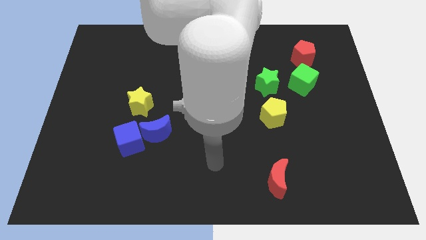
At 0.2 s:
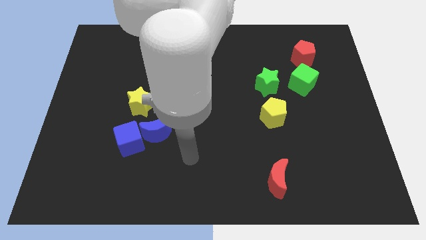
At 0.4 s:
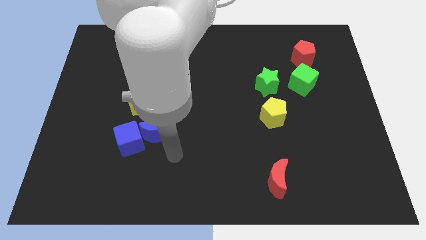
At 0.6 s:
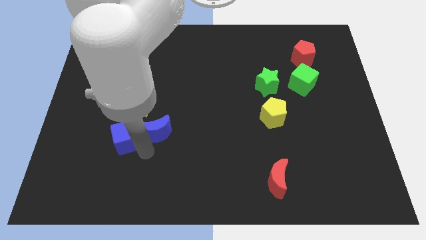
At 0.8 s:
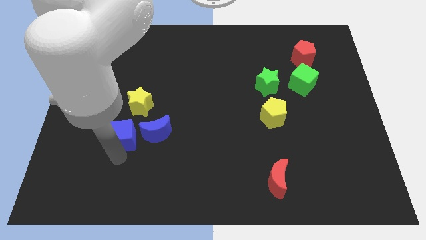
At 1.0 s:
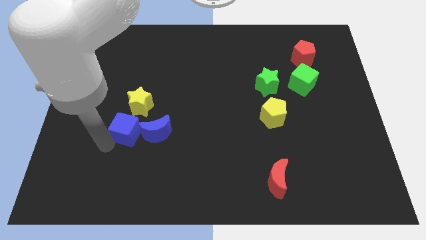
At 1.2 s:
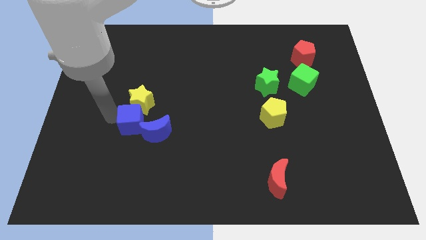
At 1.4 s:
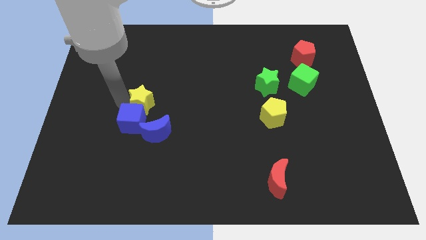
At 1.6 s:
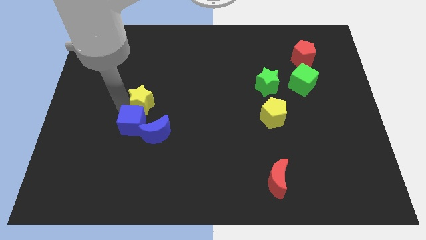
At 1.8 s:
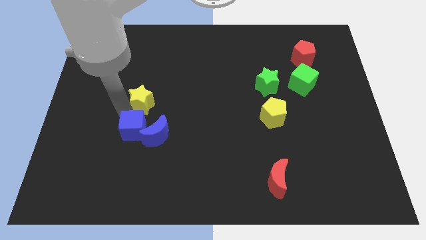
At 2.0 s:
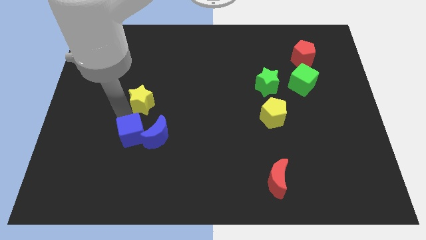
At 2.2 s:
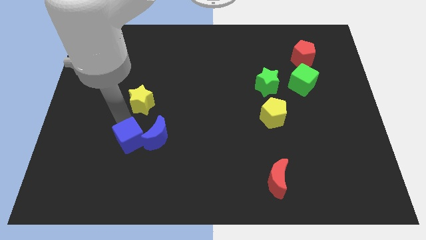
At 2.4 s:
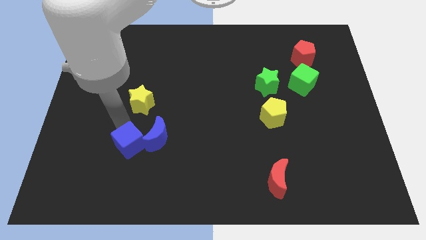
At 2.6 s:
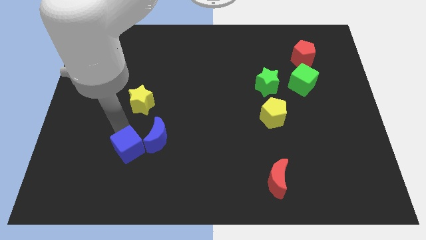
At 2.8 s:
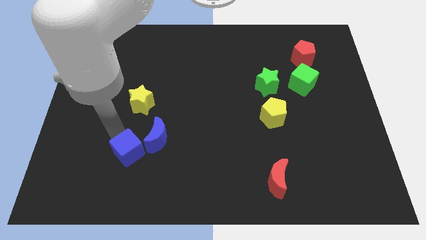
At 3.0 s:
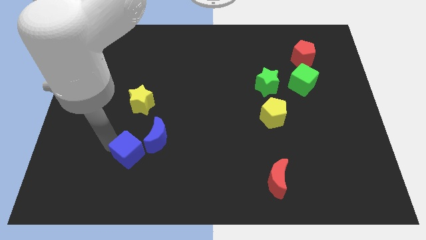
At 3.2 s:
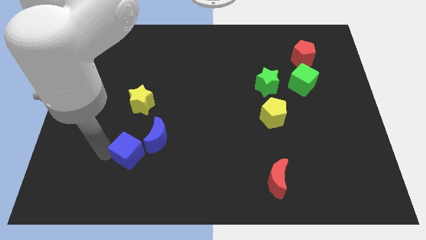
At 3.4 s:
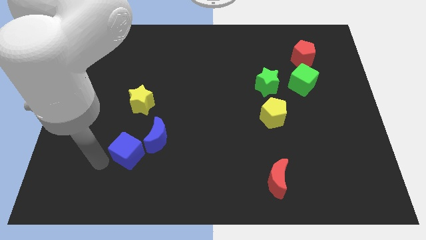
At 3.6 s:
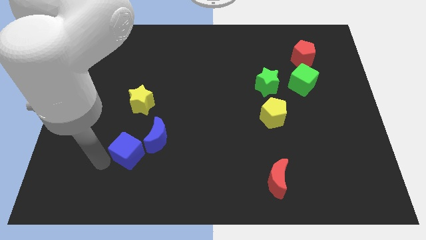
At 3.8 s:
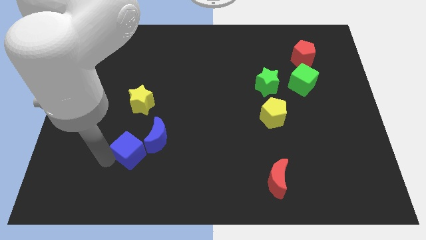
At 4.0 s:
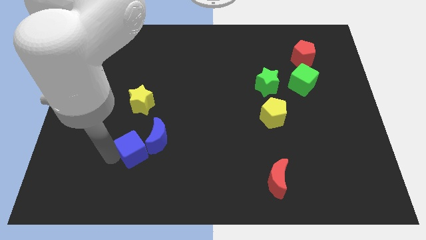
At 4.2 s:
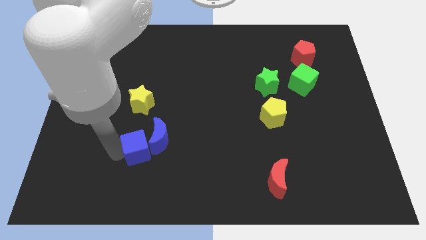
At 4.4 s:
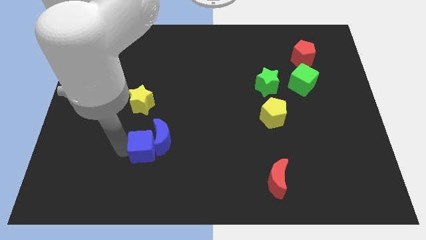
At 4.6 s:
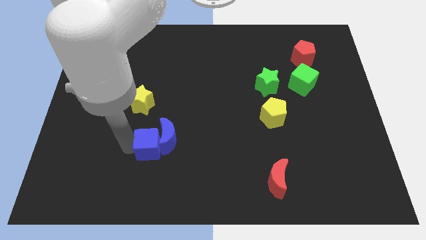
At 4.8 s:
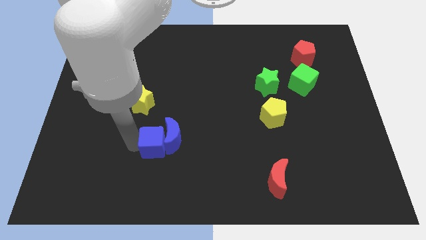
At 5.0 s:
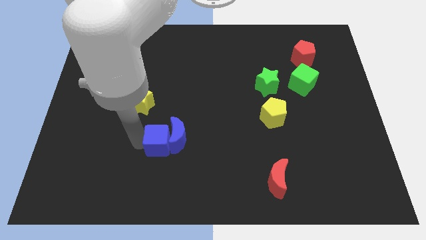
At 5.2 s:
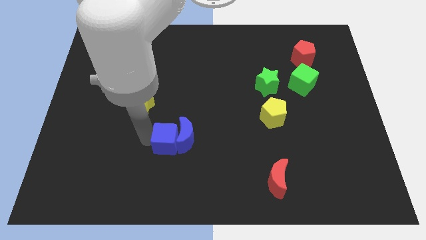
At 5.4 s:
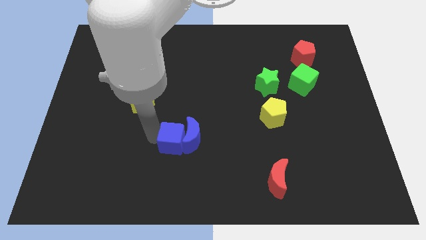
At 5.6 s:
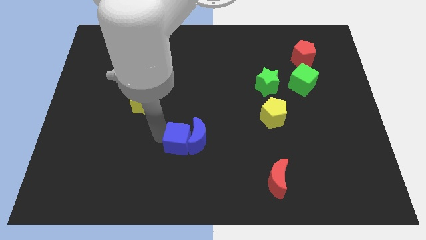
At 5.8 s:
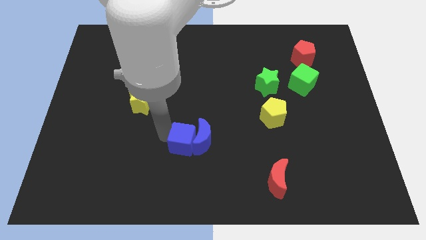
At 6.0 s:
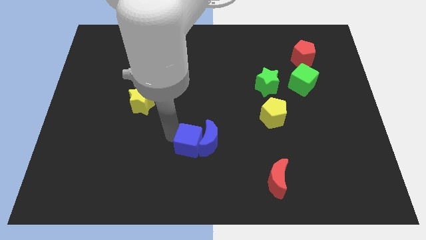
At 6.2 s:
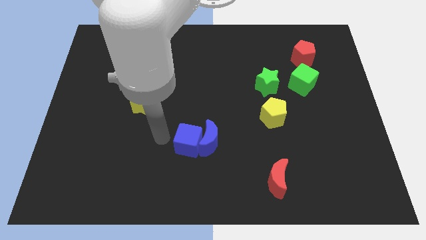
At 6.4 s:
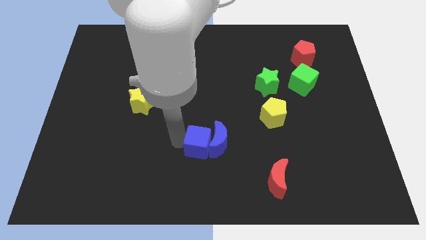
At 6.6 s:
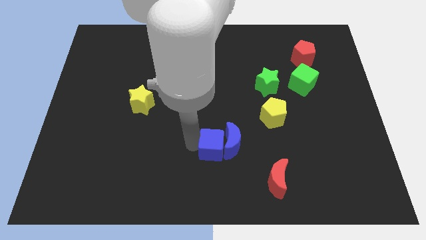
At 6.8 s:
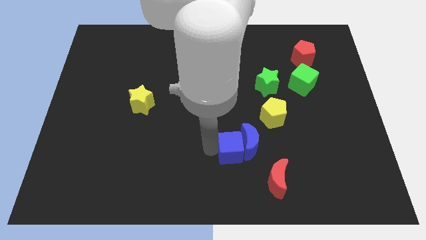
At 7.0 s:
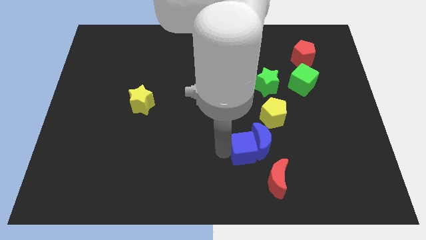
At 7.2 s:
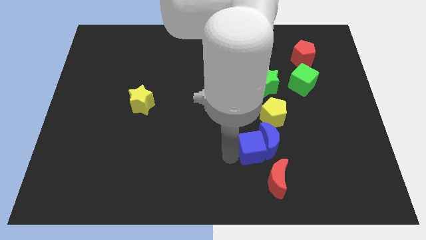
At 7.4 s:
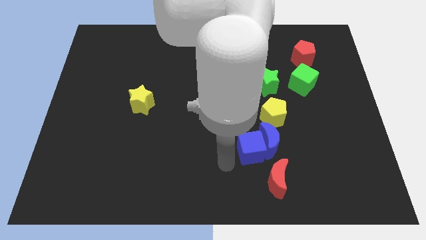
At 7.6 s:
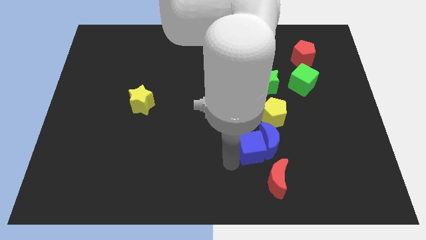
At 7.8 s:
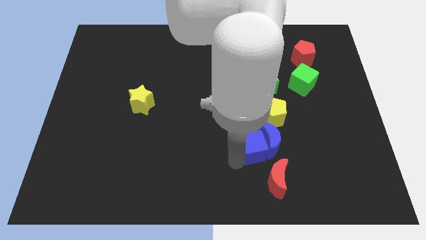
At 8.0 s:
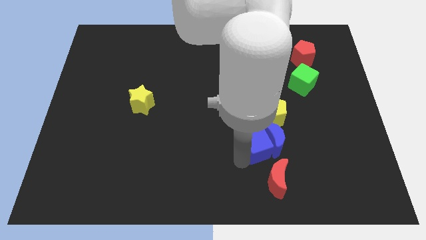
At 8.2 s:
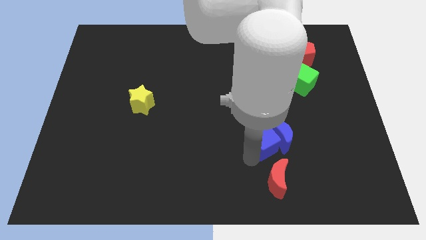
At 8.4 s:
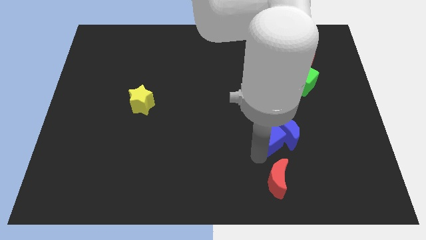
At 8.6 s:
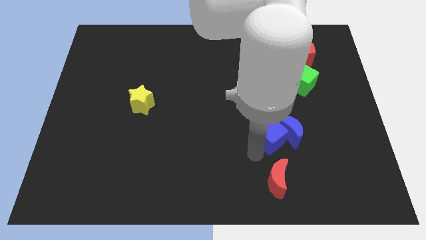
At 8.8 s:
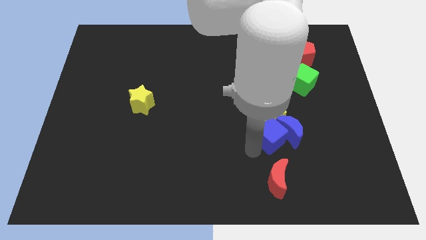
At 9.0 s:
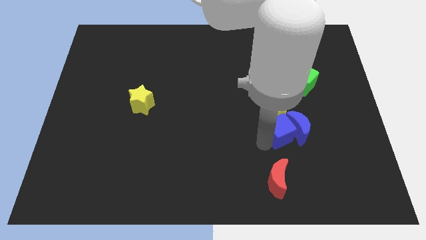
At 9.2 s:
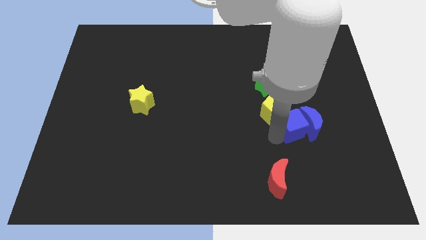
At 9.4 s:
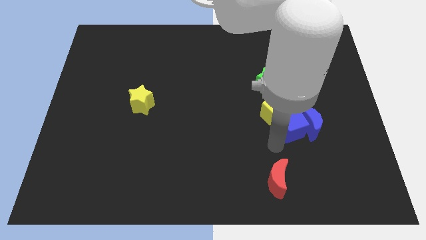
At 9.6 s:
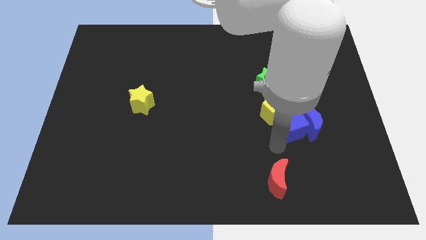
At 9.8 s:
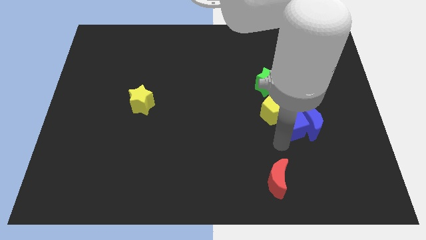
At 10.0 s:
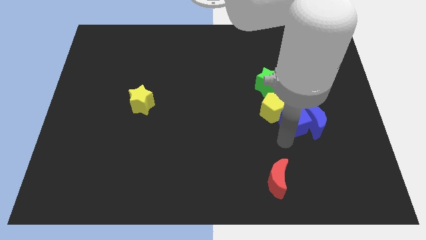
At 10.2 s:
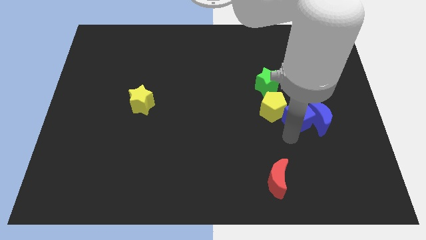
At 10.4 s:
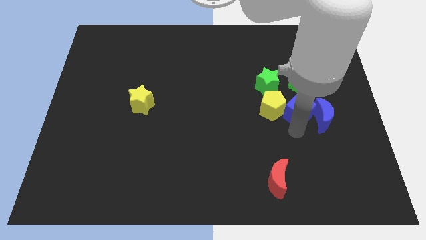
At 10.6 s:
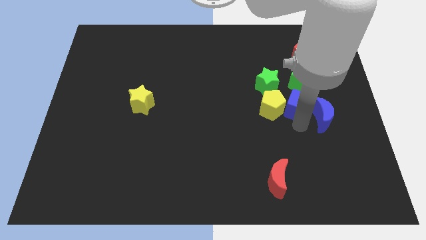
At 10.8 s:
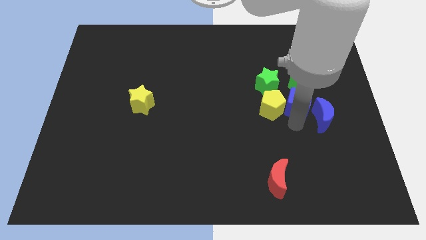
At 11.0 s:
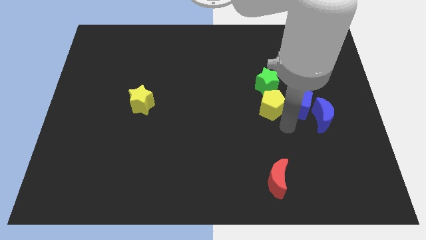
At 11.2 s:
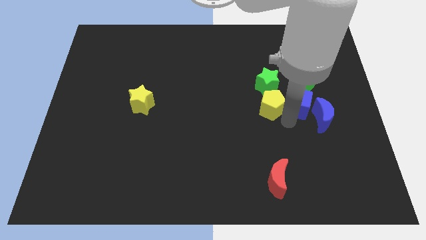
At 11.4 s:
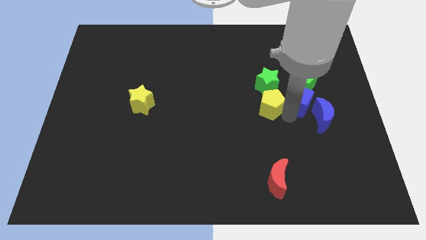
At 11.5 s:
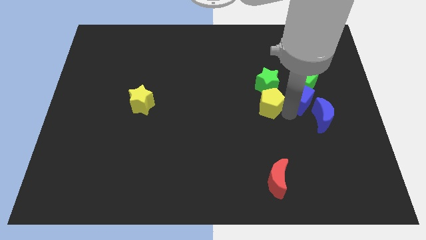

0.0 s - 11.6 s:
push the blue cube to the bottom side of the red pentagon

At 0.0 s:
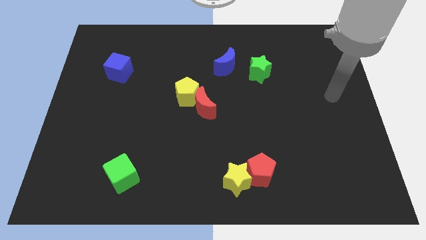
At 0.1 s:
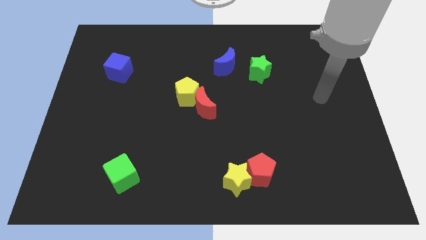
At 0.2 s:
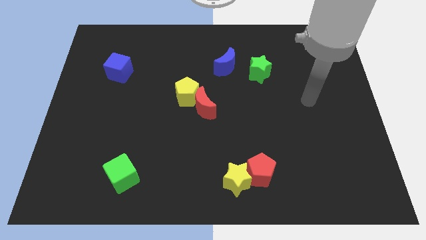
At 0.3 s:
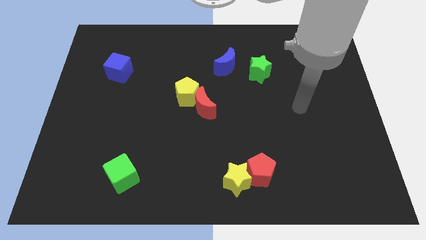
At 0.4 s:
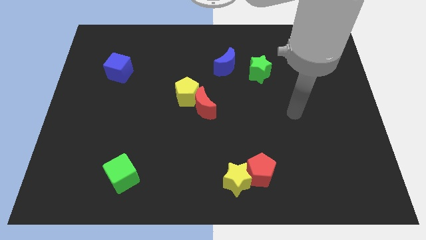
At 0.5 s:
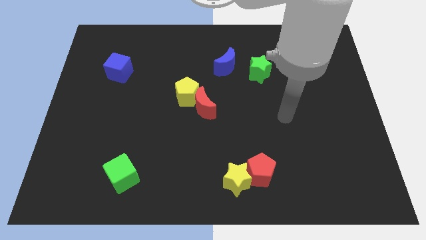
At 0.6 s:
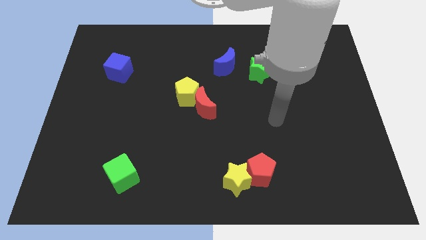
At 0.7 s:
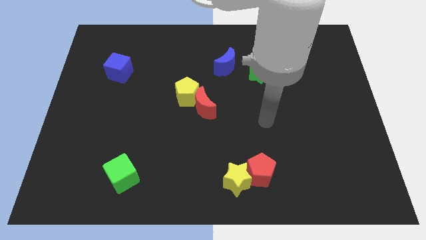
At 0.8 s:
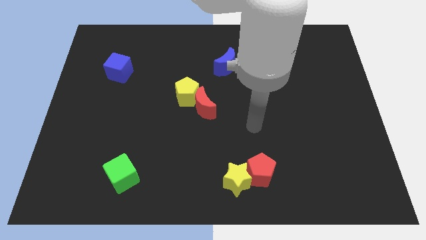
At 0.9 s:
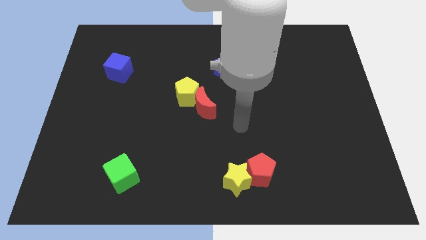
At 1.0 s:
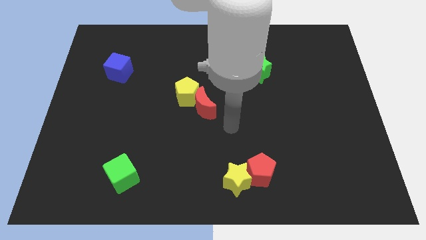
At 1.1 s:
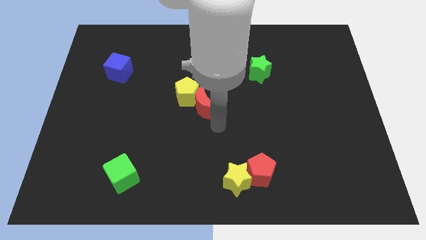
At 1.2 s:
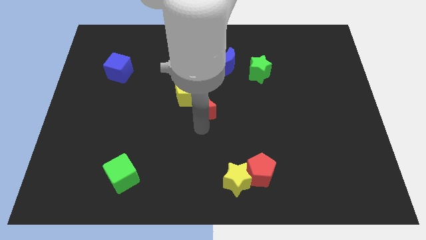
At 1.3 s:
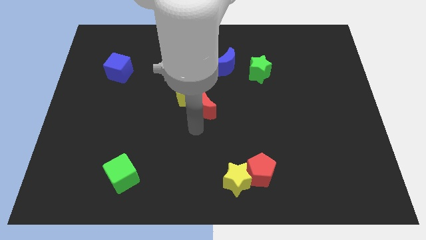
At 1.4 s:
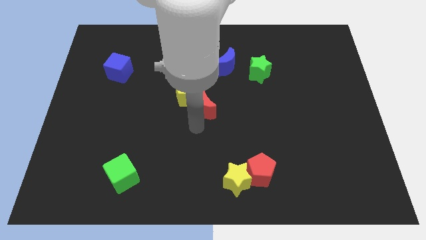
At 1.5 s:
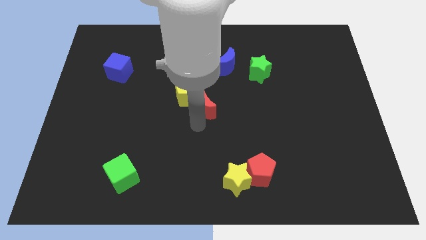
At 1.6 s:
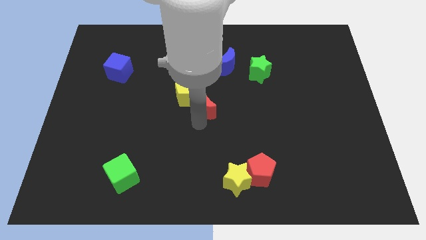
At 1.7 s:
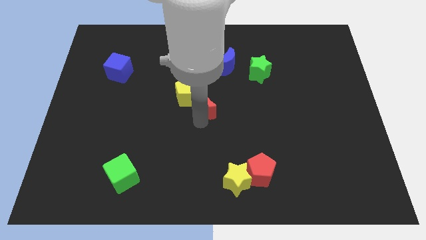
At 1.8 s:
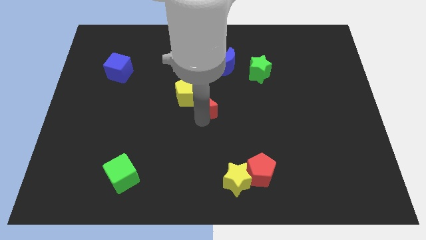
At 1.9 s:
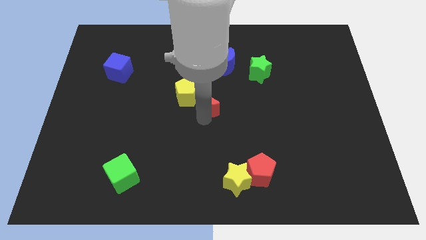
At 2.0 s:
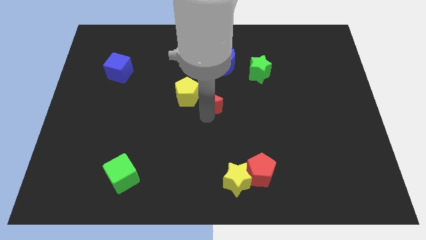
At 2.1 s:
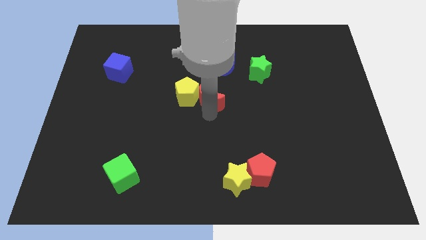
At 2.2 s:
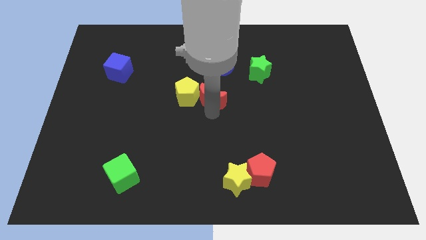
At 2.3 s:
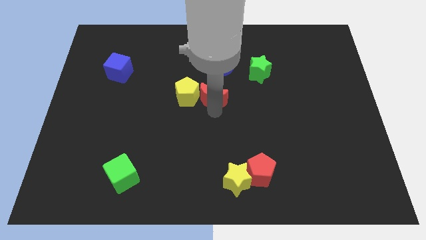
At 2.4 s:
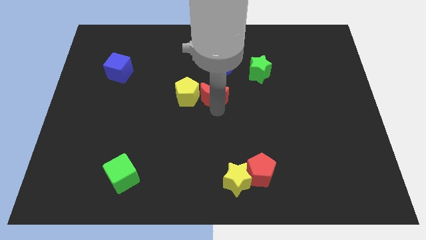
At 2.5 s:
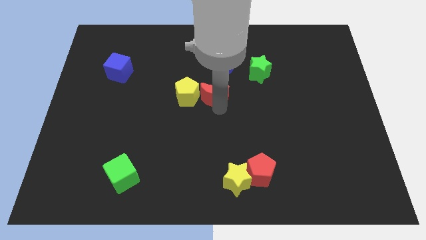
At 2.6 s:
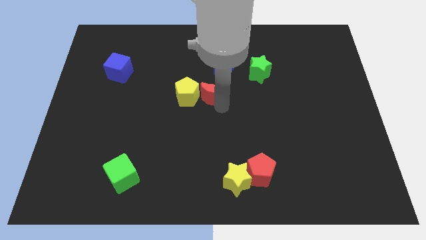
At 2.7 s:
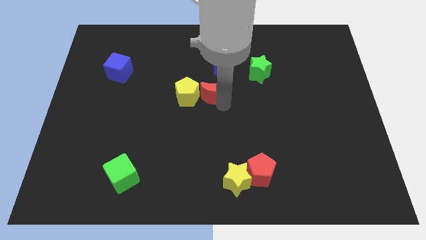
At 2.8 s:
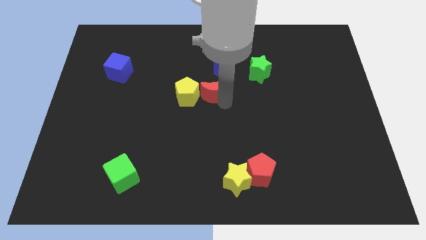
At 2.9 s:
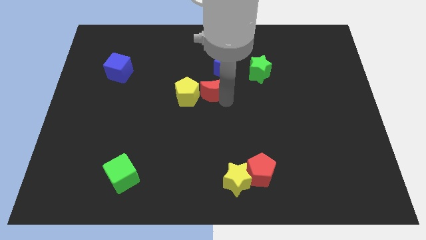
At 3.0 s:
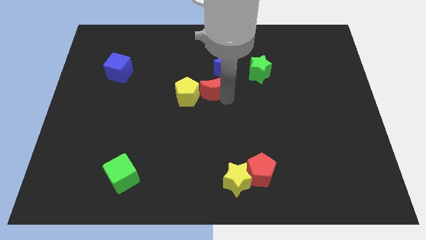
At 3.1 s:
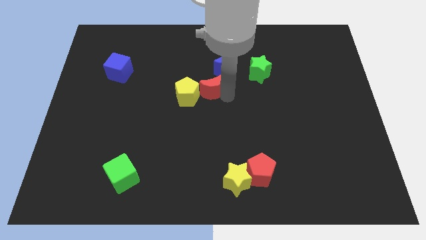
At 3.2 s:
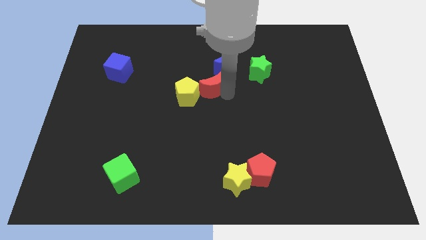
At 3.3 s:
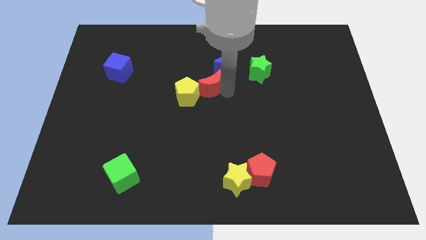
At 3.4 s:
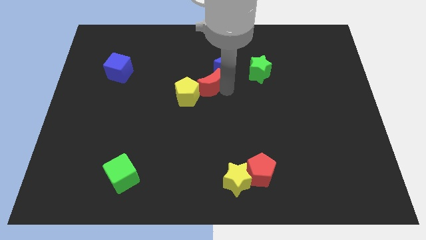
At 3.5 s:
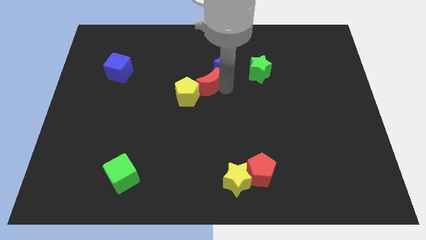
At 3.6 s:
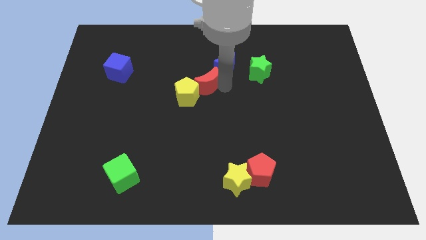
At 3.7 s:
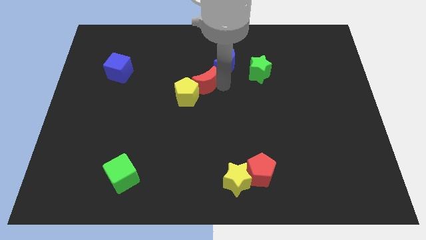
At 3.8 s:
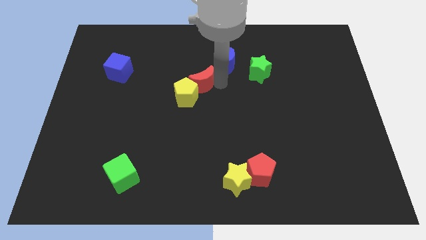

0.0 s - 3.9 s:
slide the red moon above the yellow pentagon
